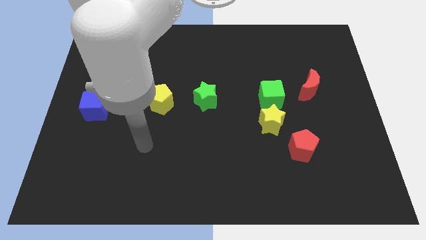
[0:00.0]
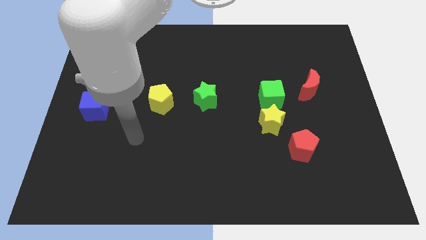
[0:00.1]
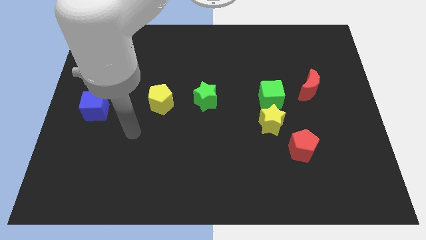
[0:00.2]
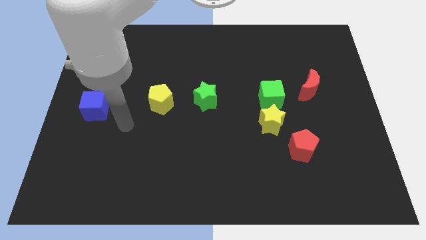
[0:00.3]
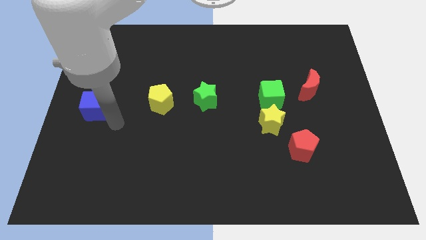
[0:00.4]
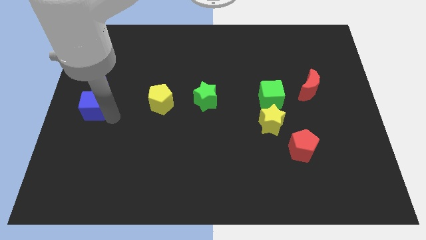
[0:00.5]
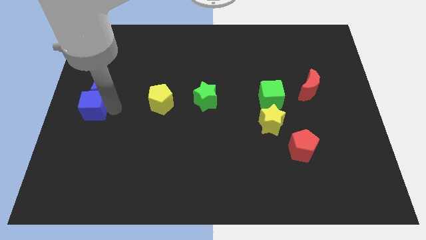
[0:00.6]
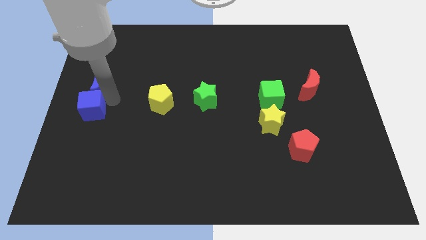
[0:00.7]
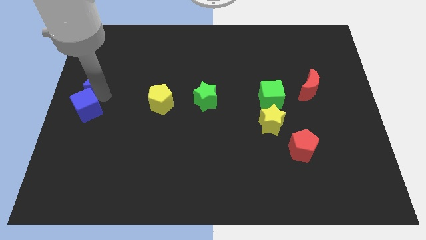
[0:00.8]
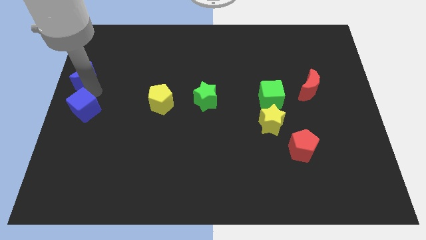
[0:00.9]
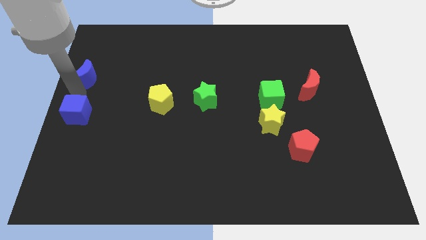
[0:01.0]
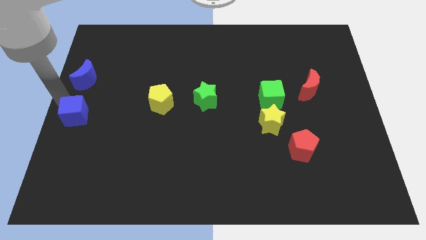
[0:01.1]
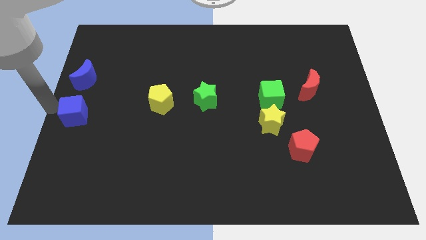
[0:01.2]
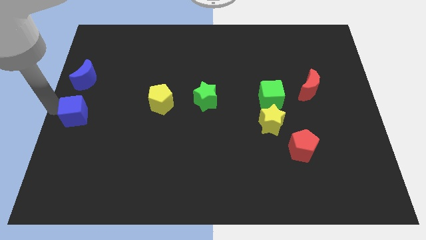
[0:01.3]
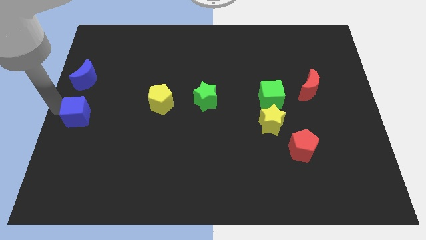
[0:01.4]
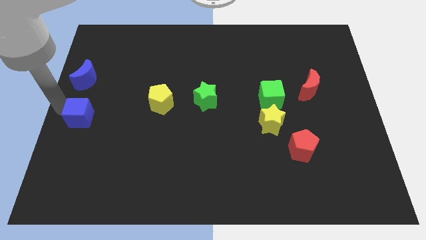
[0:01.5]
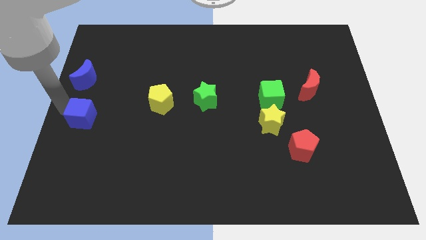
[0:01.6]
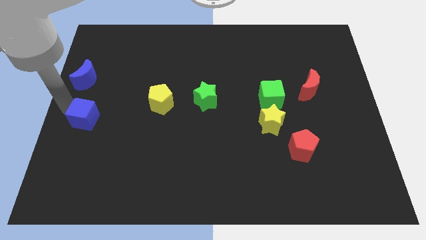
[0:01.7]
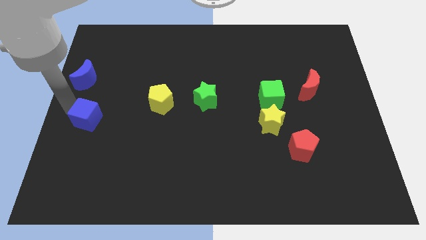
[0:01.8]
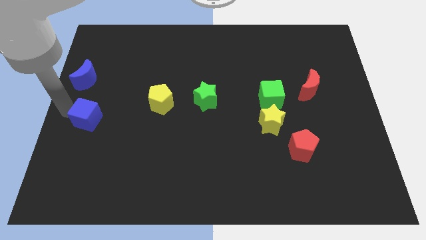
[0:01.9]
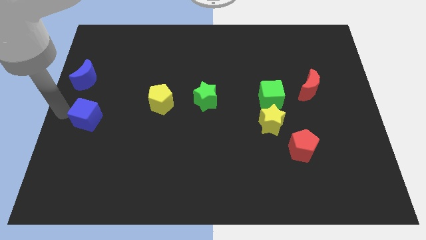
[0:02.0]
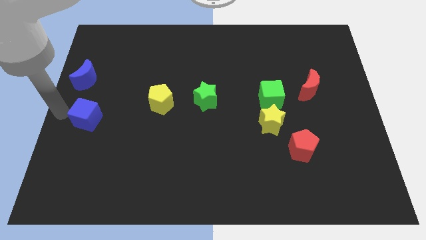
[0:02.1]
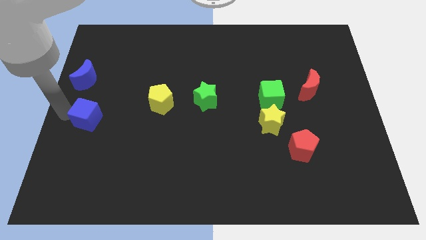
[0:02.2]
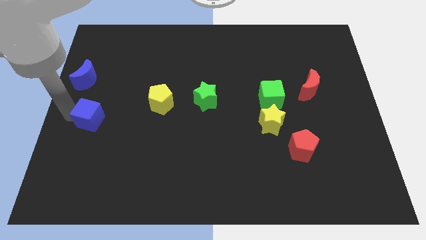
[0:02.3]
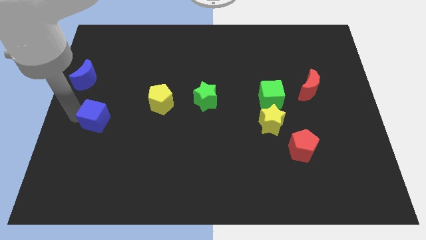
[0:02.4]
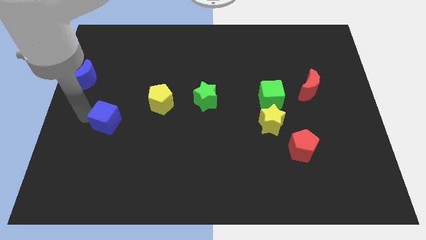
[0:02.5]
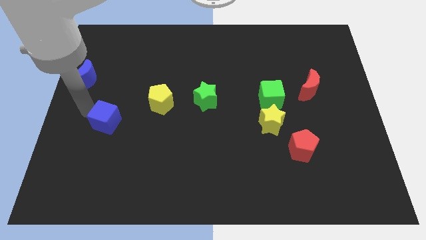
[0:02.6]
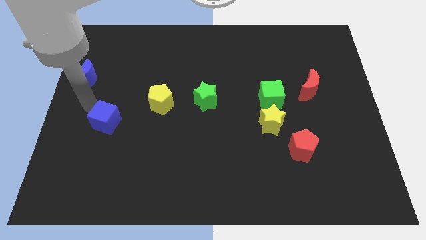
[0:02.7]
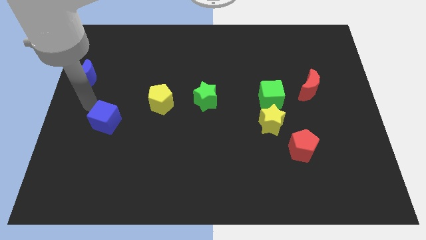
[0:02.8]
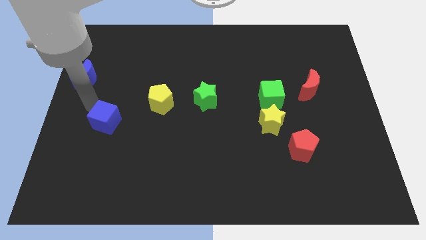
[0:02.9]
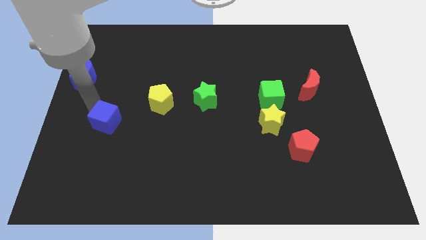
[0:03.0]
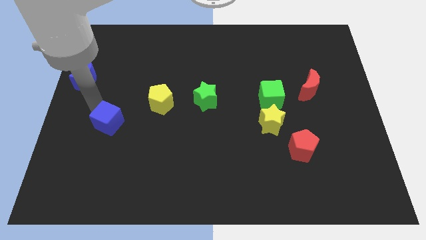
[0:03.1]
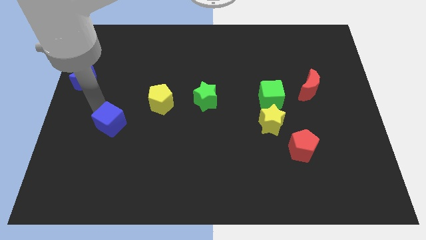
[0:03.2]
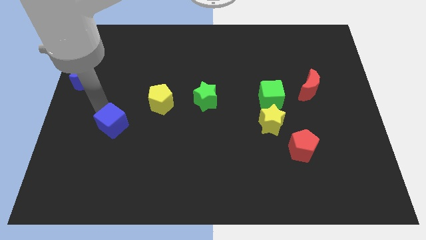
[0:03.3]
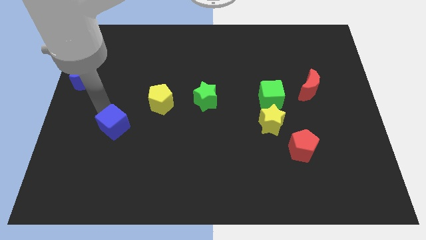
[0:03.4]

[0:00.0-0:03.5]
slightly slide the blue cube down and right diagonally

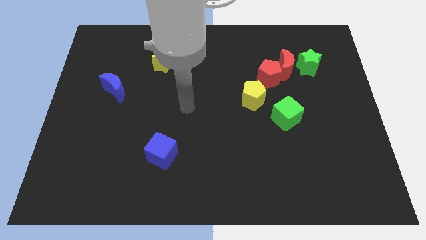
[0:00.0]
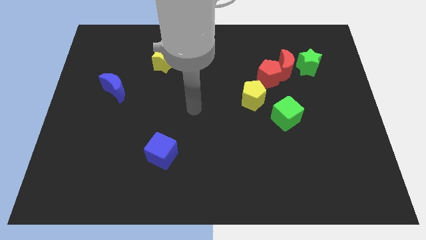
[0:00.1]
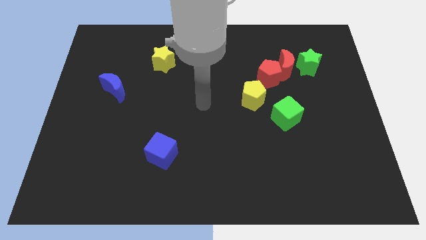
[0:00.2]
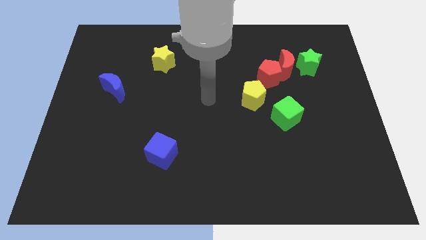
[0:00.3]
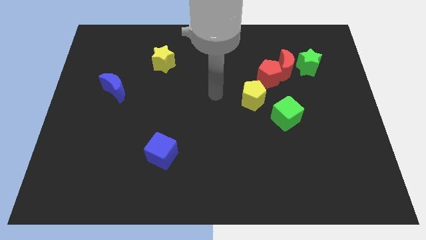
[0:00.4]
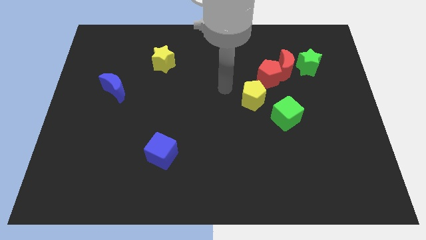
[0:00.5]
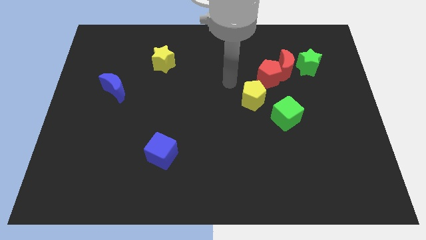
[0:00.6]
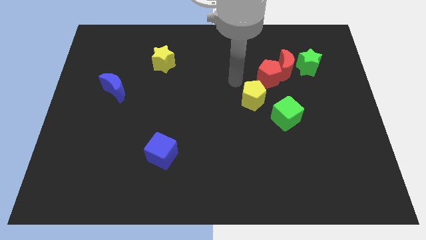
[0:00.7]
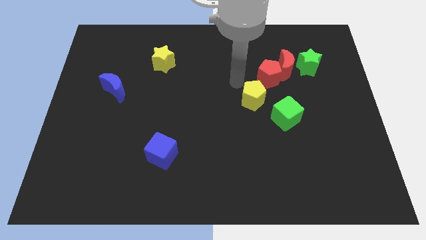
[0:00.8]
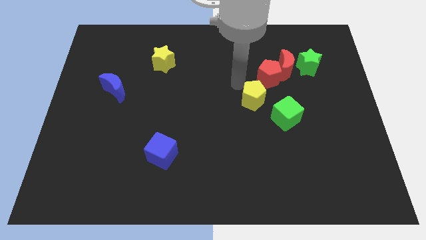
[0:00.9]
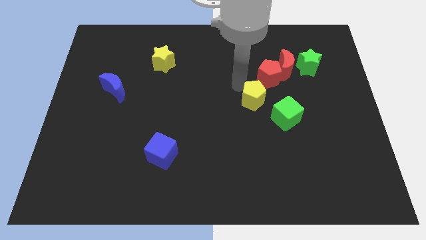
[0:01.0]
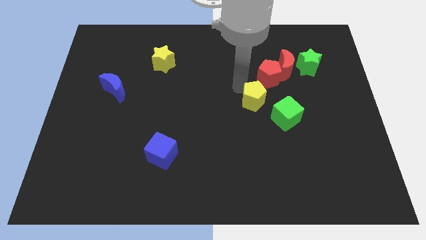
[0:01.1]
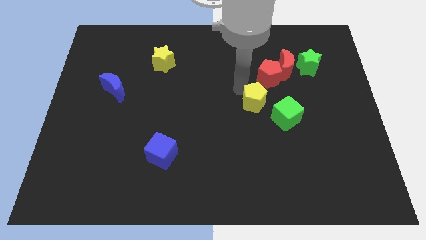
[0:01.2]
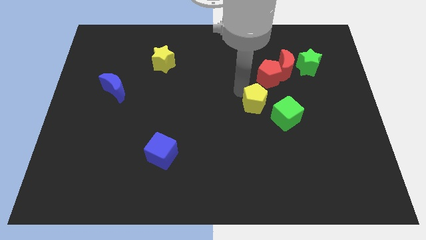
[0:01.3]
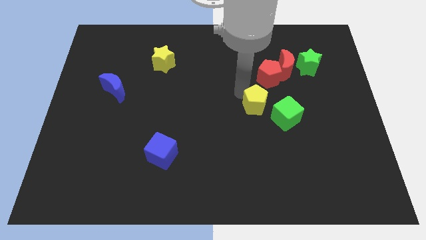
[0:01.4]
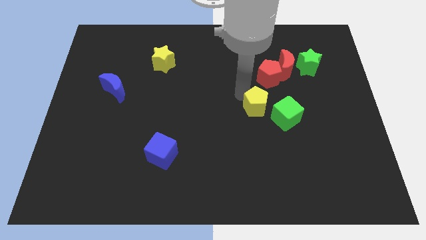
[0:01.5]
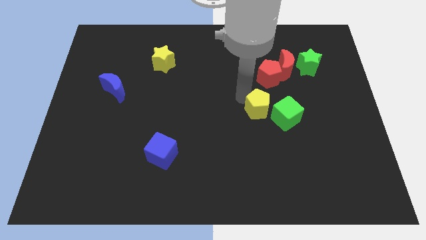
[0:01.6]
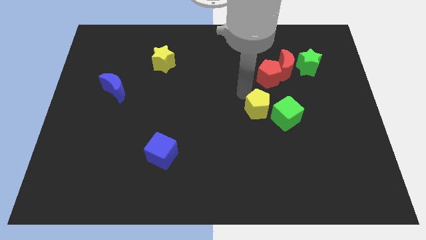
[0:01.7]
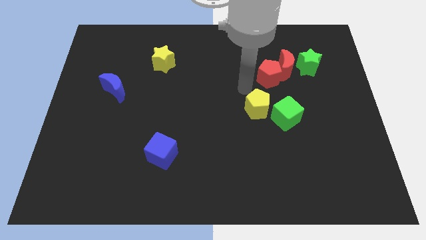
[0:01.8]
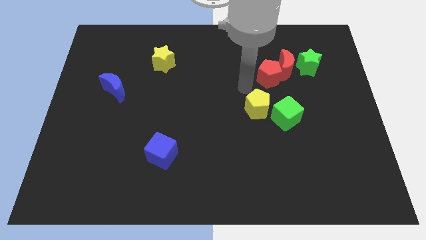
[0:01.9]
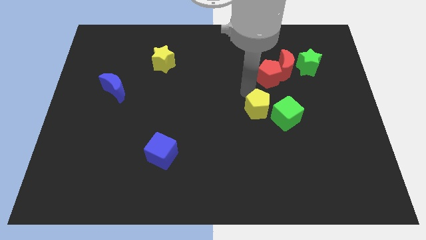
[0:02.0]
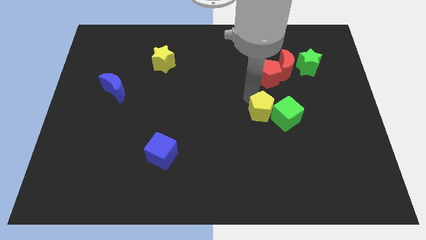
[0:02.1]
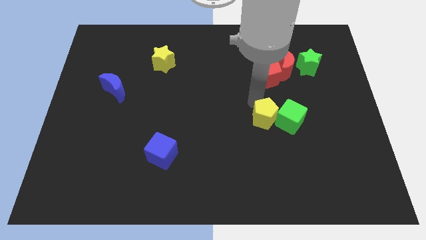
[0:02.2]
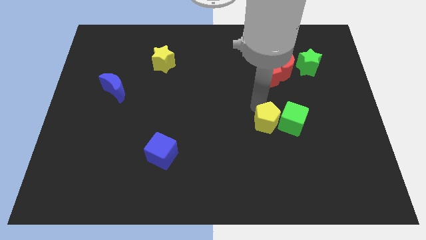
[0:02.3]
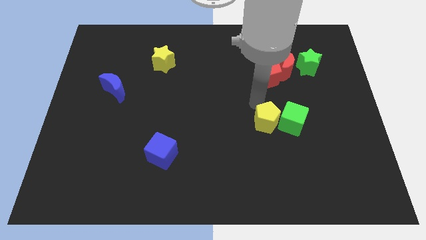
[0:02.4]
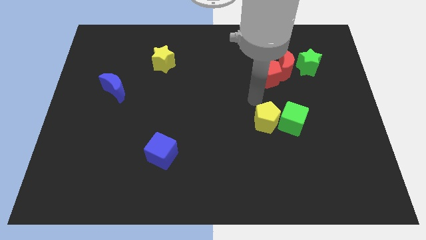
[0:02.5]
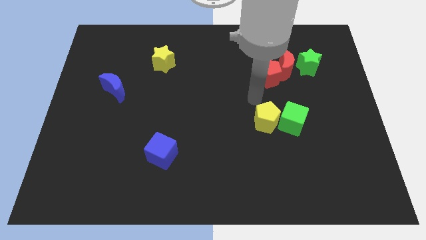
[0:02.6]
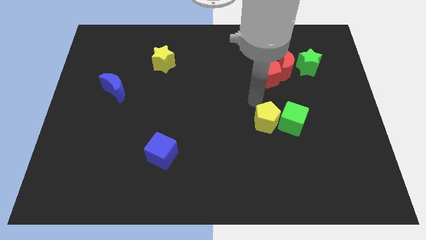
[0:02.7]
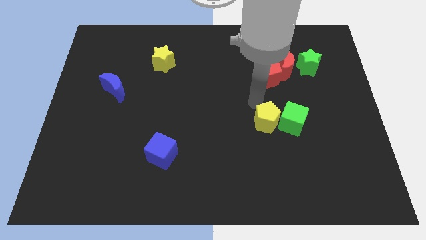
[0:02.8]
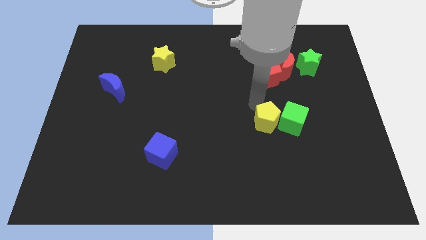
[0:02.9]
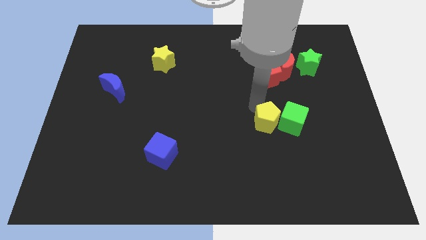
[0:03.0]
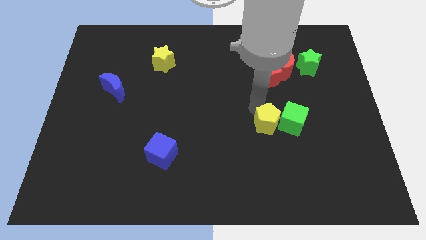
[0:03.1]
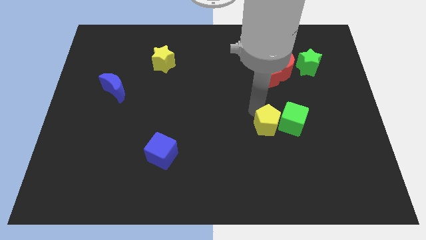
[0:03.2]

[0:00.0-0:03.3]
move the yellow pentagon diagonally downwards and right somewhat

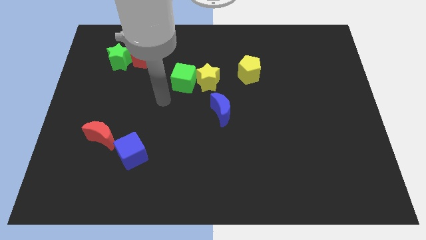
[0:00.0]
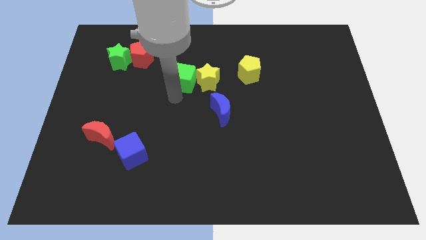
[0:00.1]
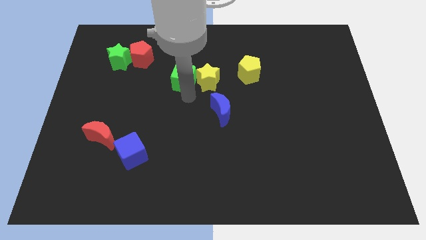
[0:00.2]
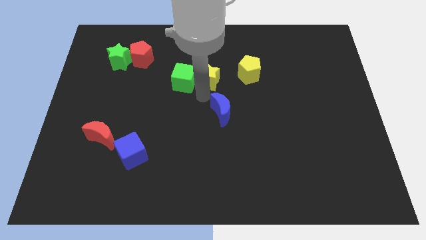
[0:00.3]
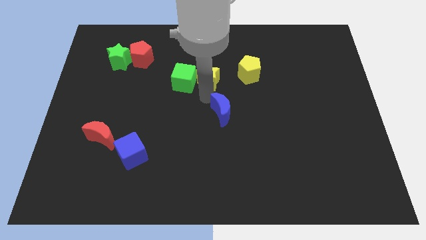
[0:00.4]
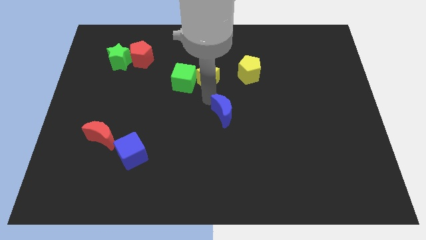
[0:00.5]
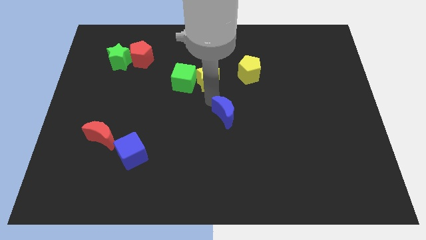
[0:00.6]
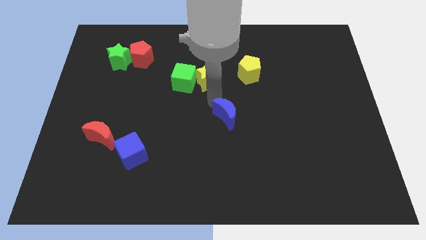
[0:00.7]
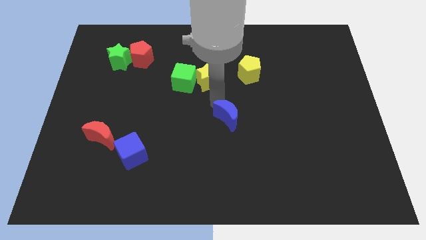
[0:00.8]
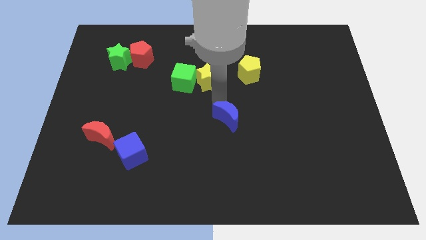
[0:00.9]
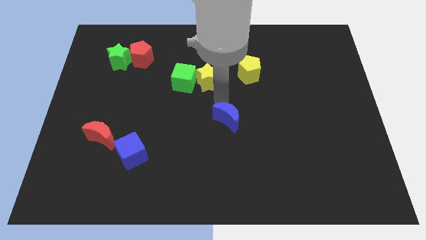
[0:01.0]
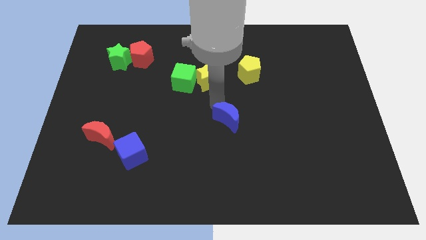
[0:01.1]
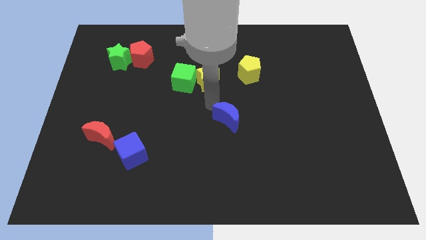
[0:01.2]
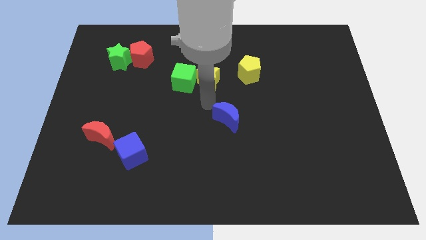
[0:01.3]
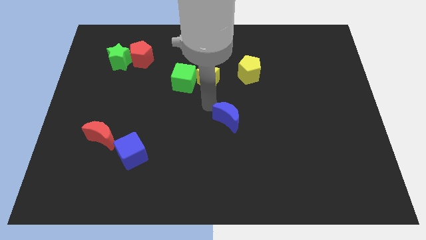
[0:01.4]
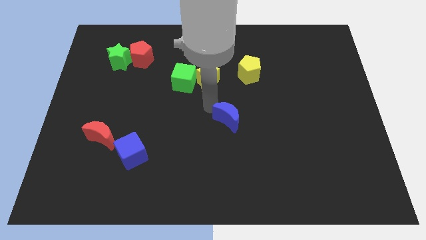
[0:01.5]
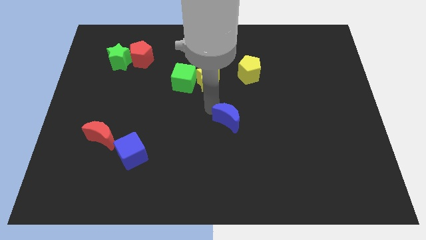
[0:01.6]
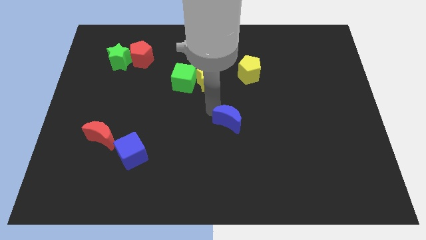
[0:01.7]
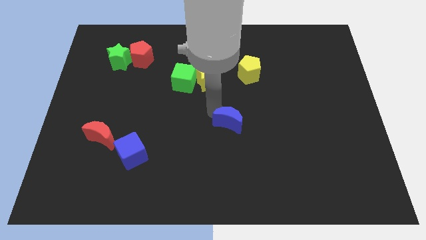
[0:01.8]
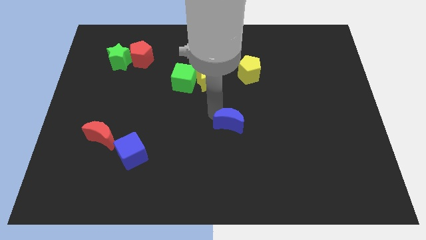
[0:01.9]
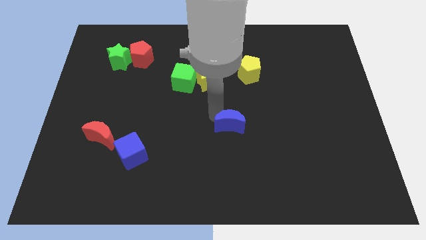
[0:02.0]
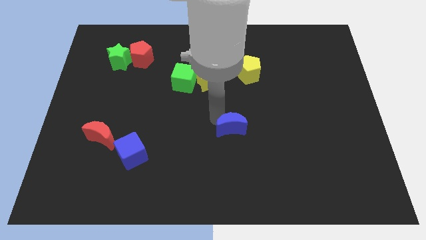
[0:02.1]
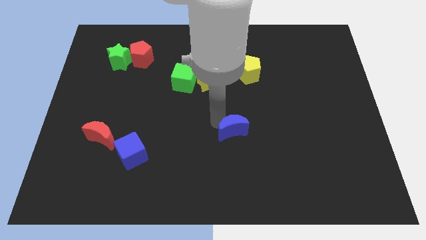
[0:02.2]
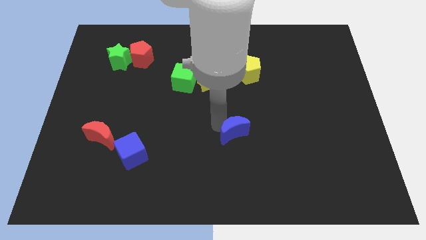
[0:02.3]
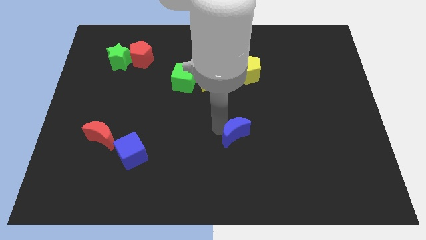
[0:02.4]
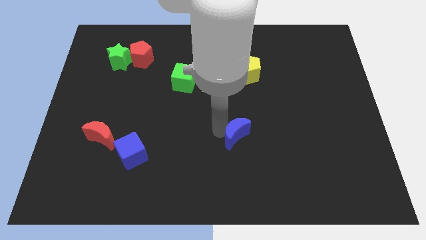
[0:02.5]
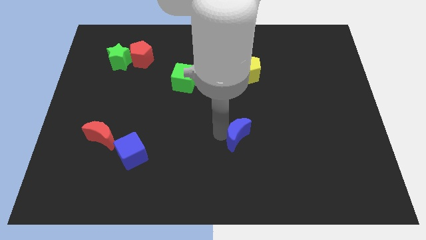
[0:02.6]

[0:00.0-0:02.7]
push the blue moon slightly downwards and right diagonally
